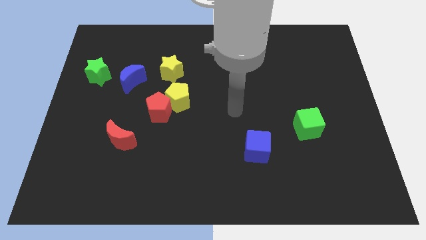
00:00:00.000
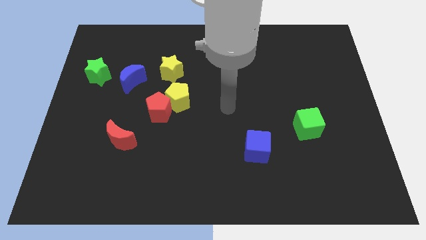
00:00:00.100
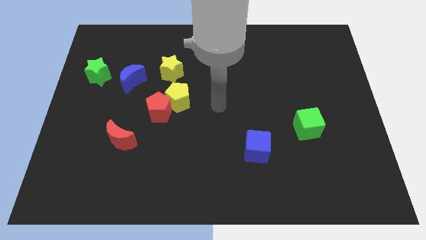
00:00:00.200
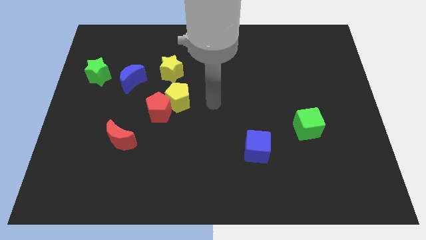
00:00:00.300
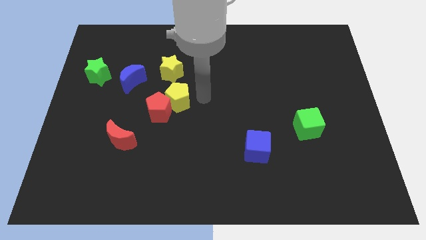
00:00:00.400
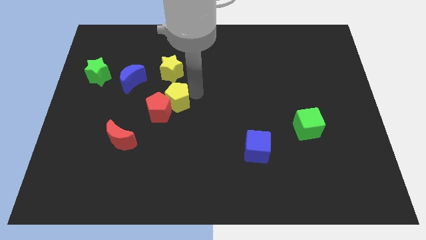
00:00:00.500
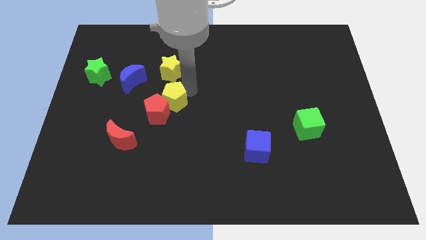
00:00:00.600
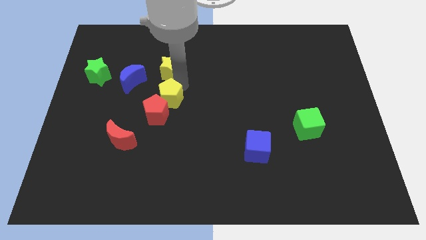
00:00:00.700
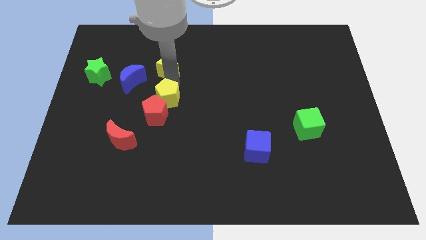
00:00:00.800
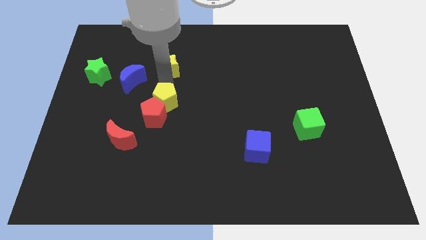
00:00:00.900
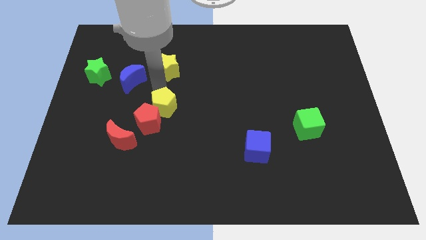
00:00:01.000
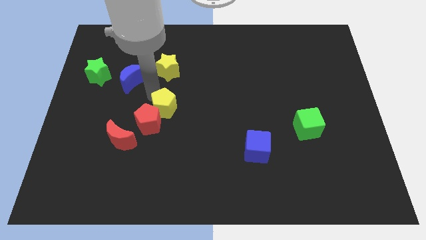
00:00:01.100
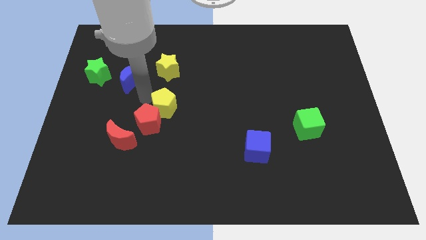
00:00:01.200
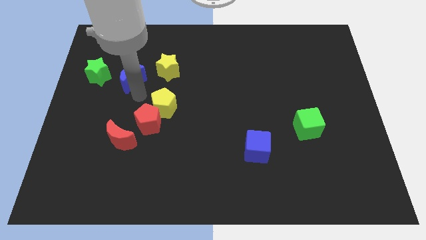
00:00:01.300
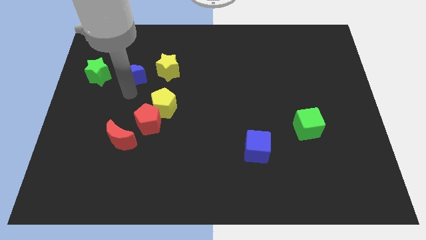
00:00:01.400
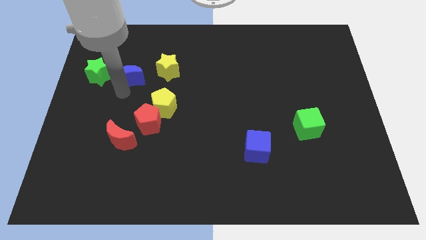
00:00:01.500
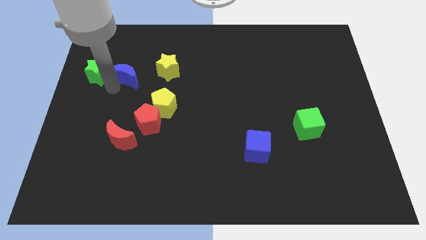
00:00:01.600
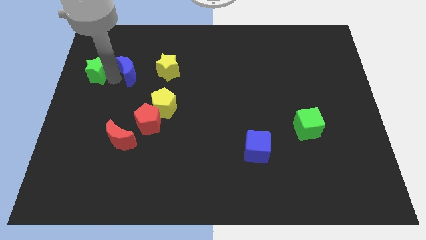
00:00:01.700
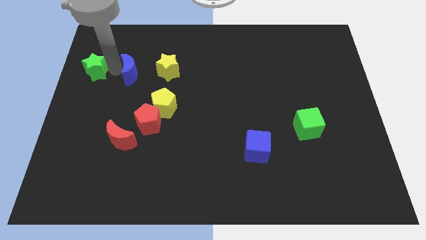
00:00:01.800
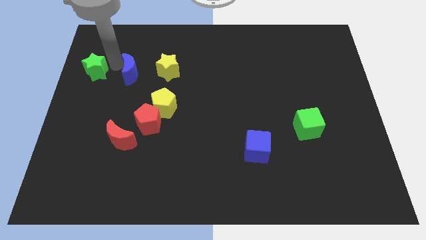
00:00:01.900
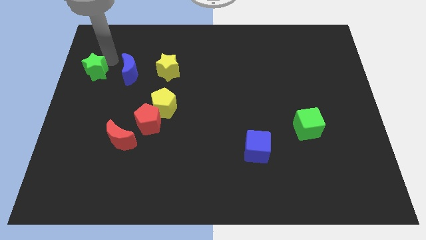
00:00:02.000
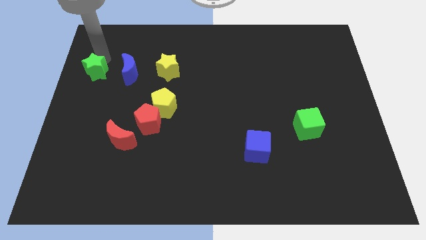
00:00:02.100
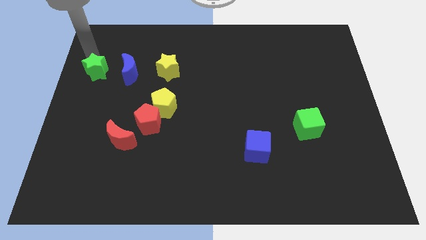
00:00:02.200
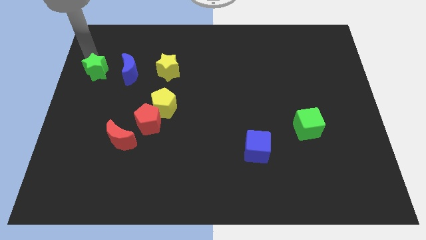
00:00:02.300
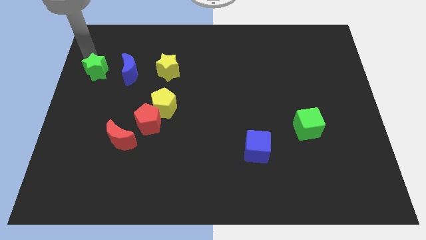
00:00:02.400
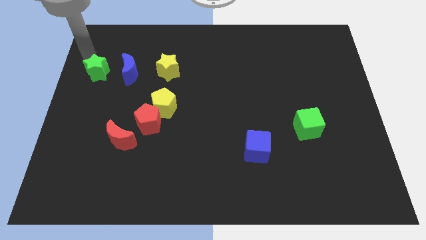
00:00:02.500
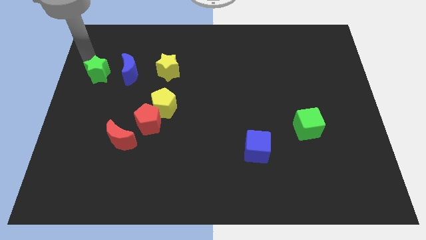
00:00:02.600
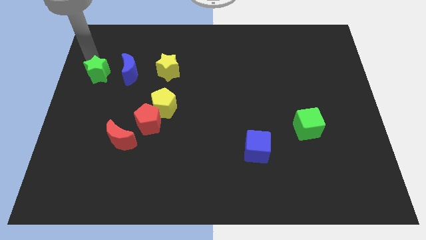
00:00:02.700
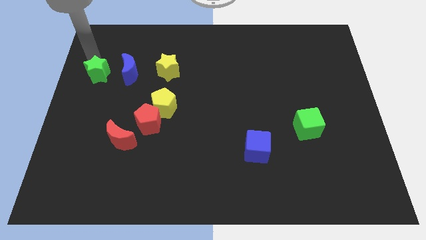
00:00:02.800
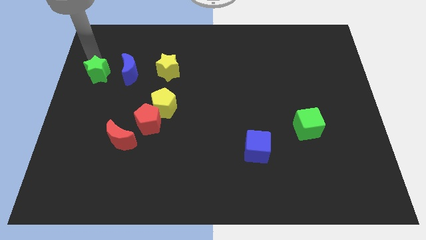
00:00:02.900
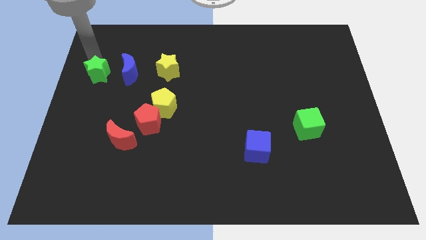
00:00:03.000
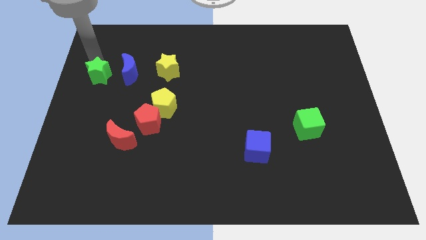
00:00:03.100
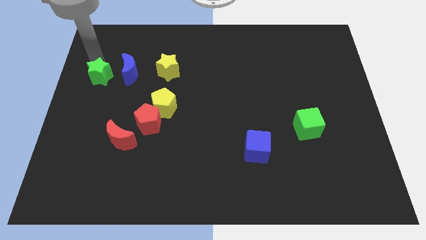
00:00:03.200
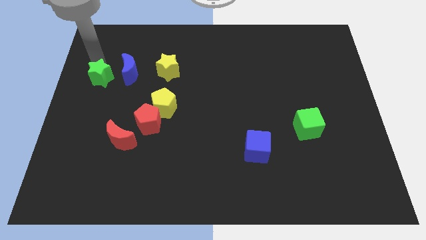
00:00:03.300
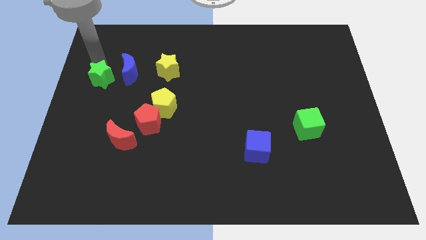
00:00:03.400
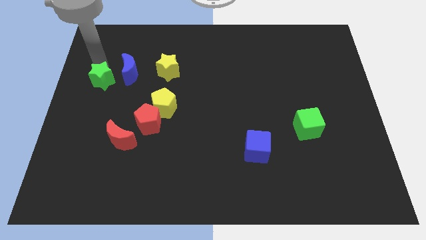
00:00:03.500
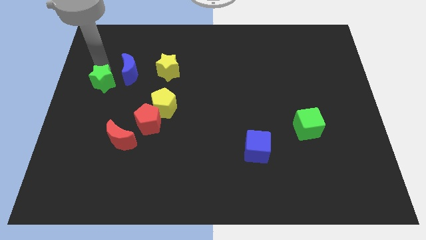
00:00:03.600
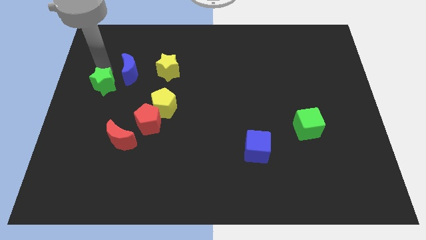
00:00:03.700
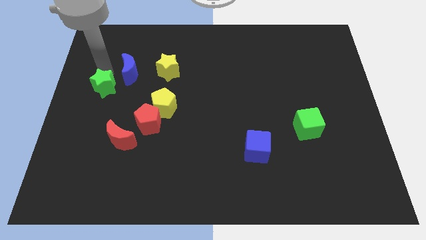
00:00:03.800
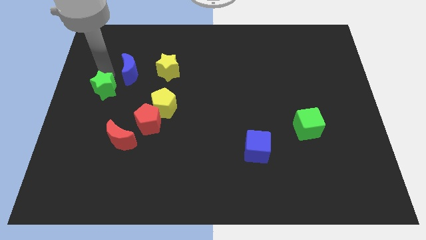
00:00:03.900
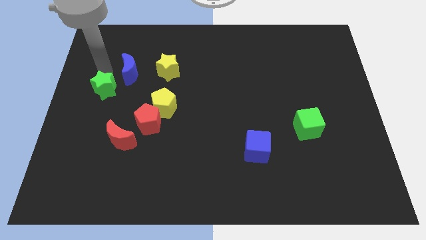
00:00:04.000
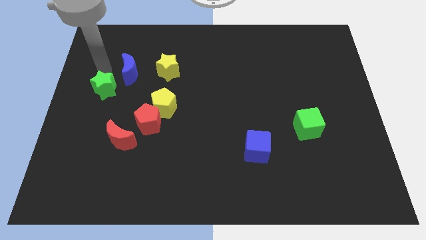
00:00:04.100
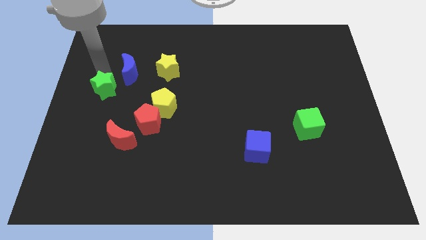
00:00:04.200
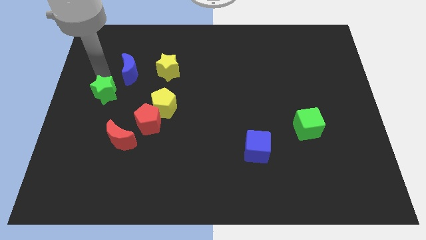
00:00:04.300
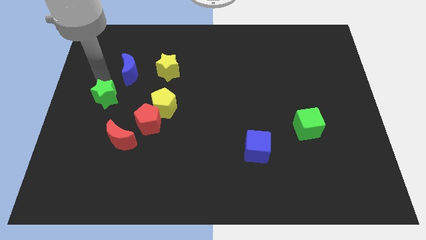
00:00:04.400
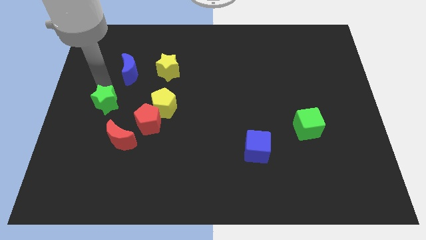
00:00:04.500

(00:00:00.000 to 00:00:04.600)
slide the green star to the top left of the red moon

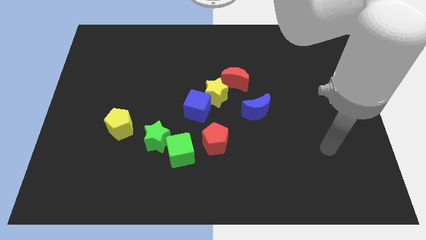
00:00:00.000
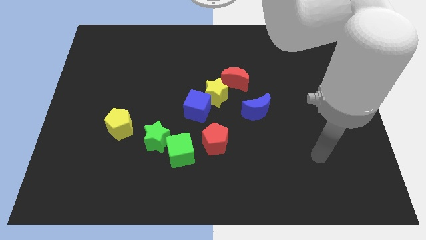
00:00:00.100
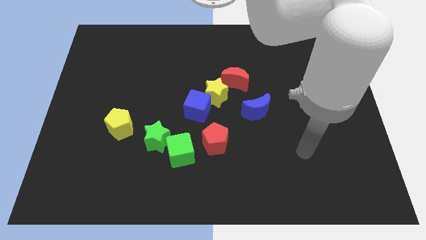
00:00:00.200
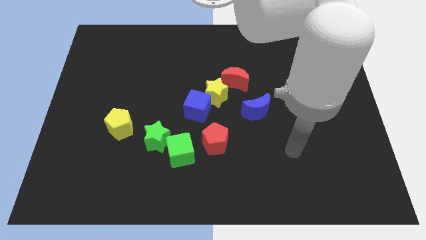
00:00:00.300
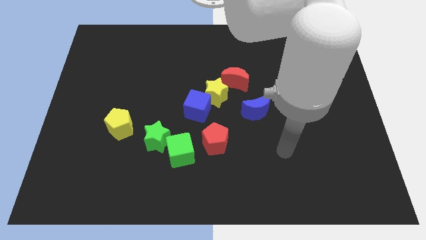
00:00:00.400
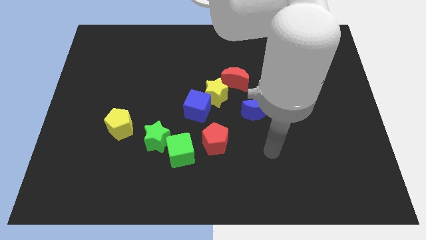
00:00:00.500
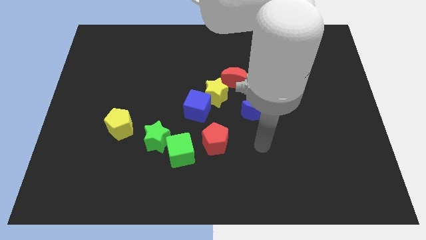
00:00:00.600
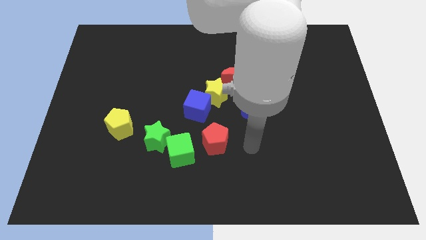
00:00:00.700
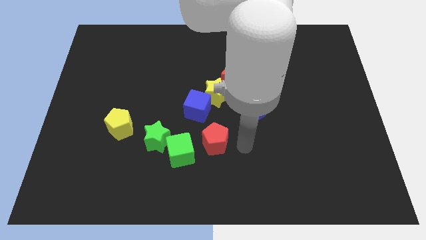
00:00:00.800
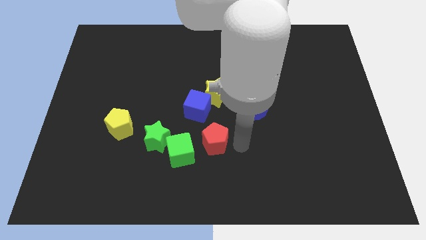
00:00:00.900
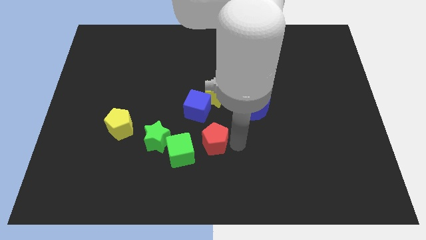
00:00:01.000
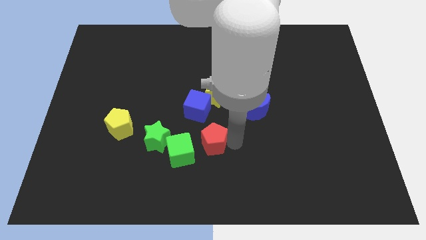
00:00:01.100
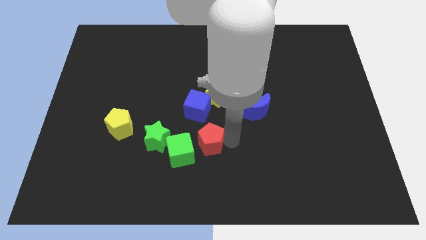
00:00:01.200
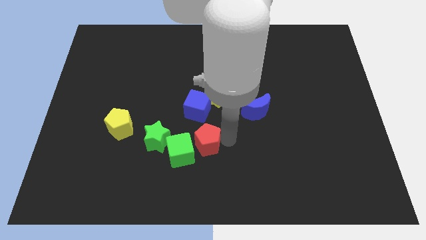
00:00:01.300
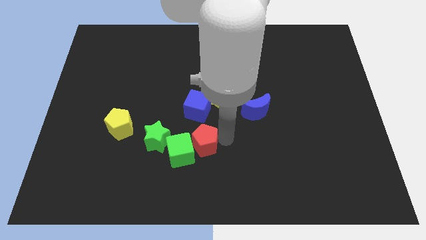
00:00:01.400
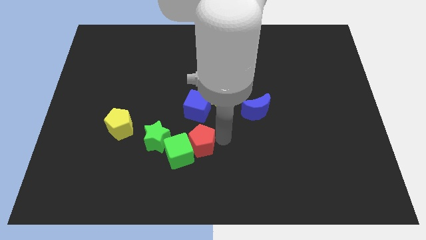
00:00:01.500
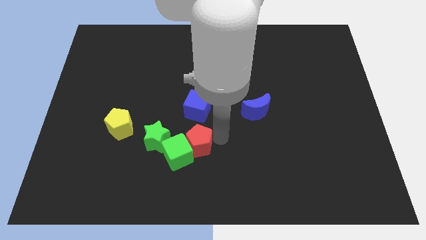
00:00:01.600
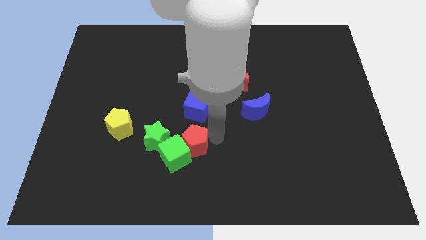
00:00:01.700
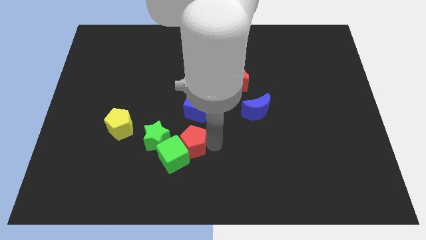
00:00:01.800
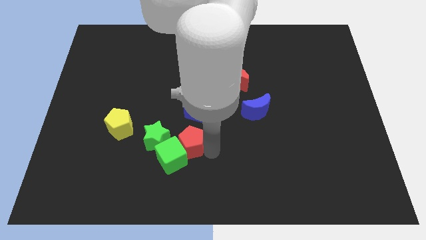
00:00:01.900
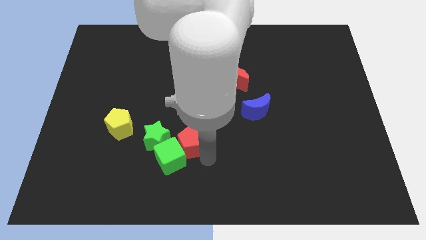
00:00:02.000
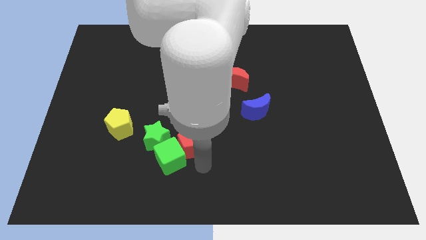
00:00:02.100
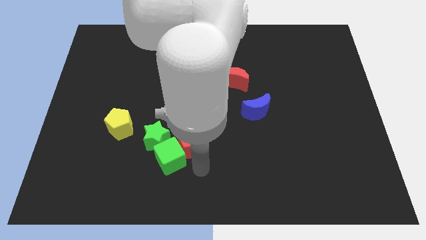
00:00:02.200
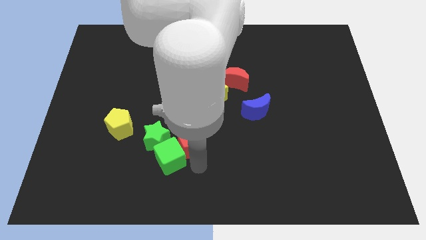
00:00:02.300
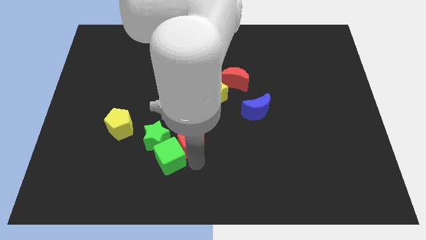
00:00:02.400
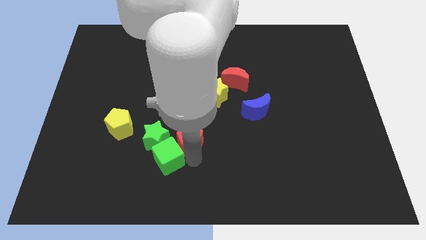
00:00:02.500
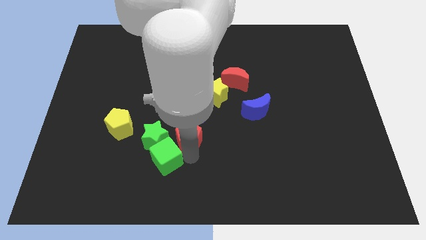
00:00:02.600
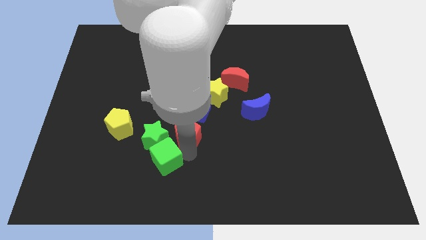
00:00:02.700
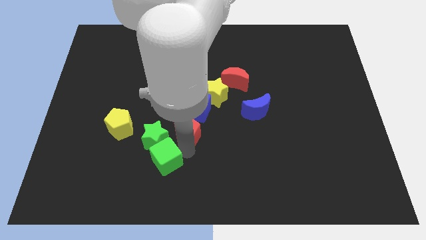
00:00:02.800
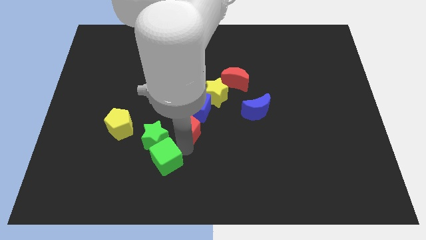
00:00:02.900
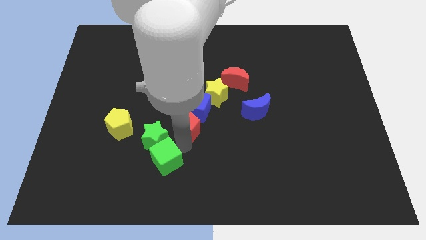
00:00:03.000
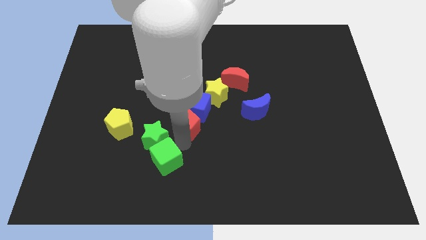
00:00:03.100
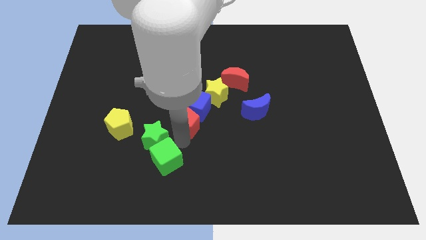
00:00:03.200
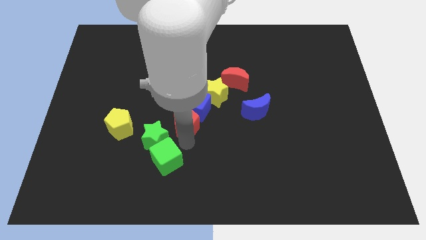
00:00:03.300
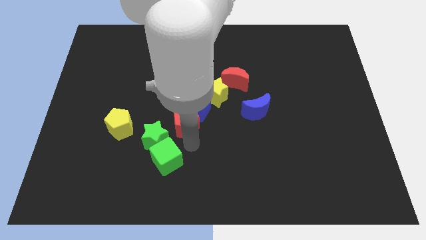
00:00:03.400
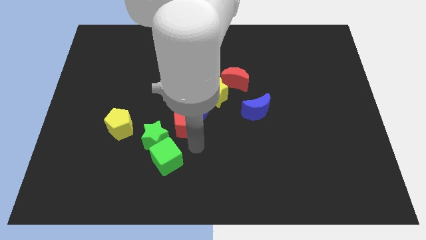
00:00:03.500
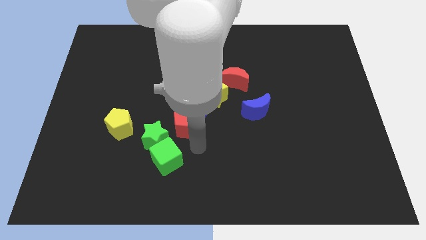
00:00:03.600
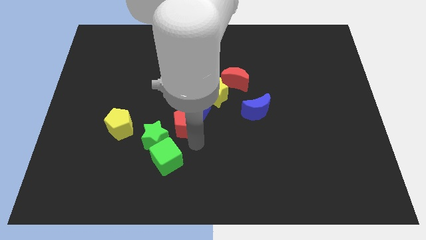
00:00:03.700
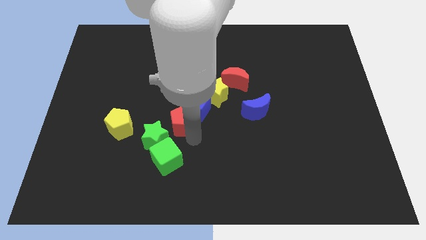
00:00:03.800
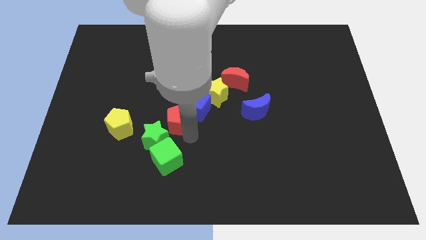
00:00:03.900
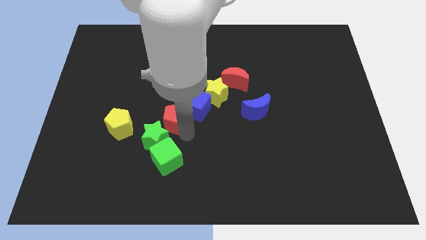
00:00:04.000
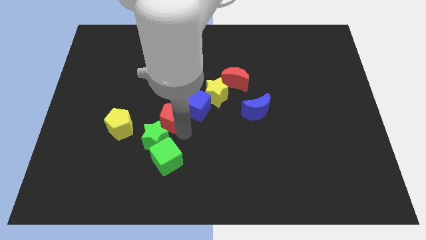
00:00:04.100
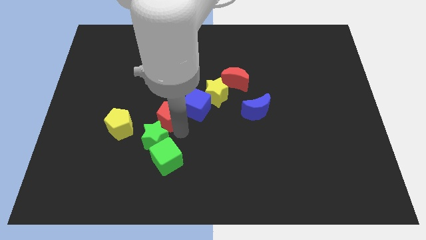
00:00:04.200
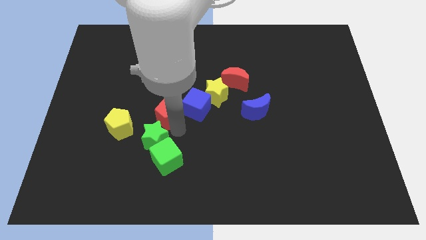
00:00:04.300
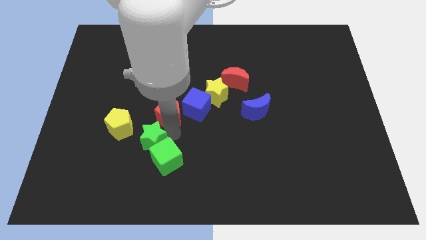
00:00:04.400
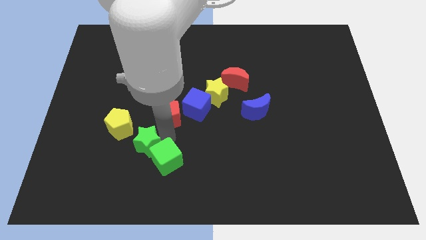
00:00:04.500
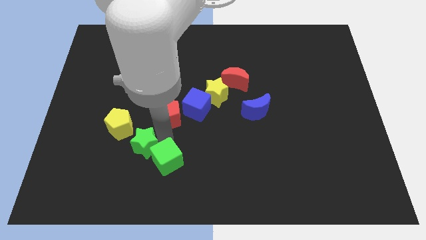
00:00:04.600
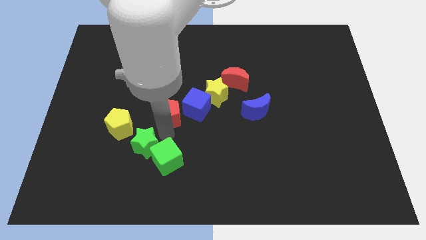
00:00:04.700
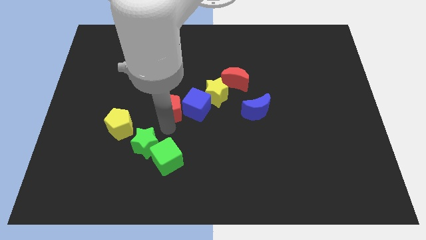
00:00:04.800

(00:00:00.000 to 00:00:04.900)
move the red pentagon to the left of the yellow star
